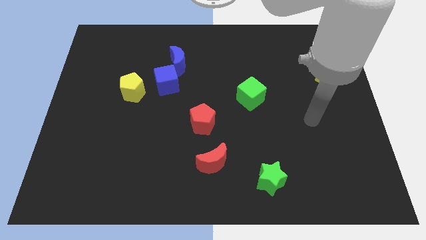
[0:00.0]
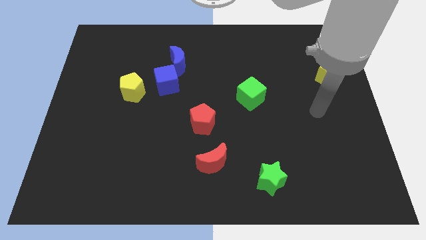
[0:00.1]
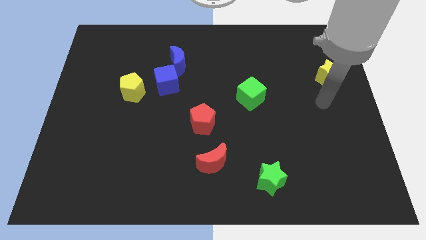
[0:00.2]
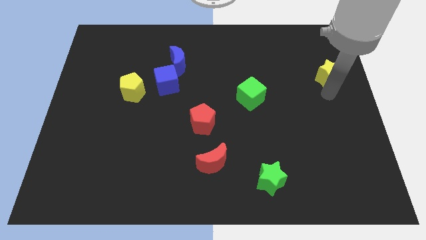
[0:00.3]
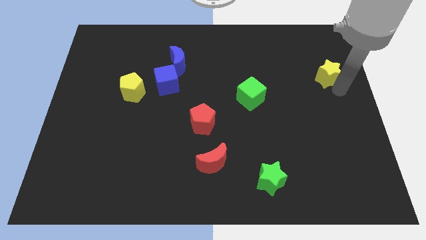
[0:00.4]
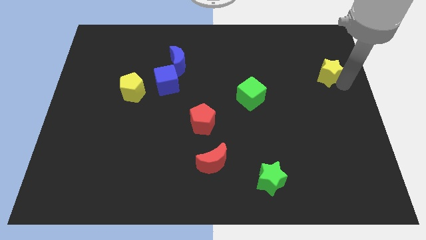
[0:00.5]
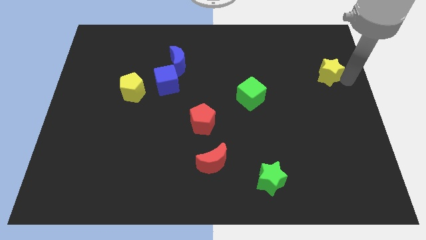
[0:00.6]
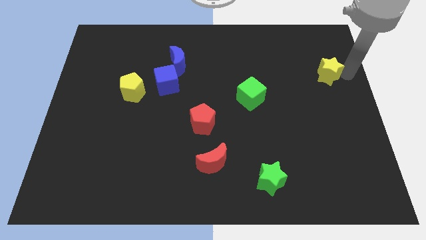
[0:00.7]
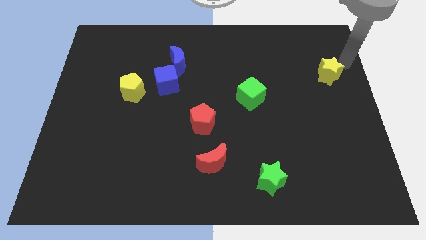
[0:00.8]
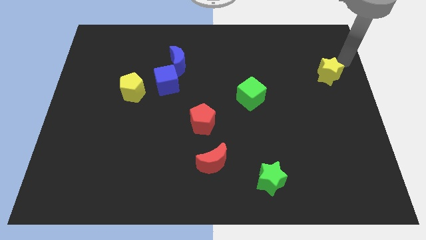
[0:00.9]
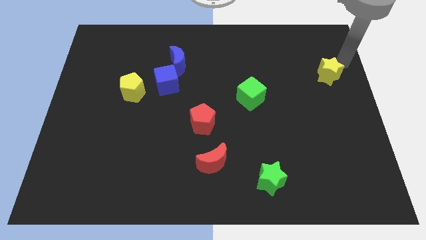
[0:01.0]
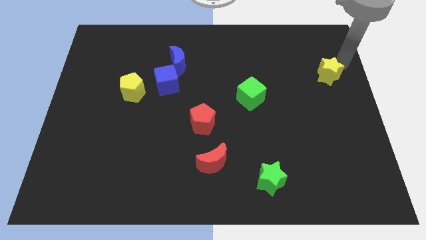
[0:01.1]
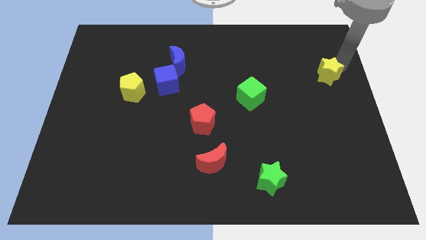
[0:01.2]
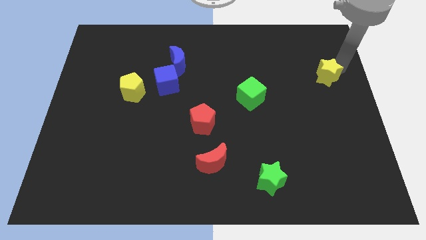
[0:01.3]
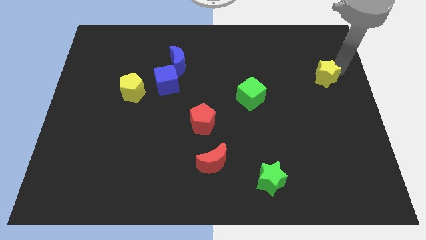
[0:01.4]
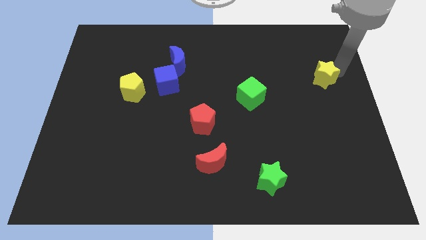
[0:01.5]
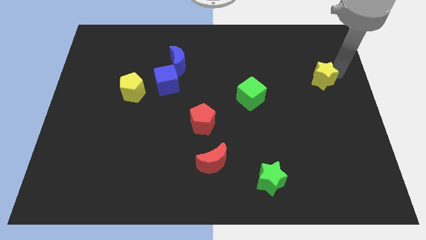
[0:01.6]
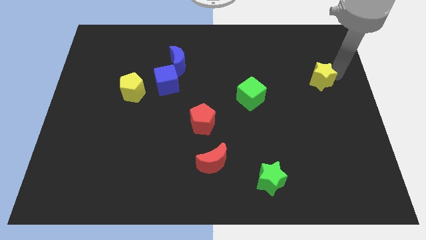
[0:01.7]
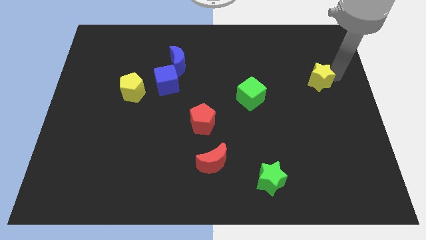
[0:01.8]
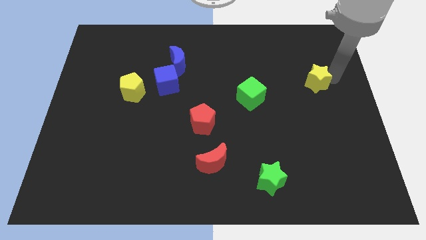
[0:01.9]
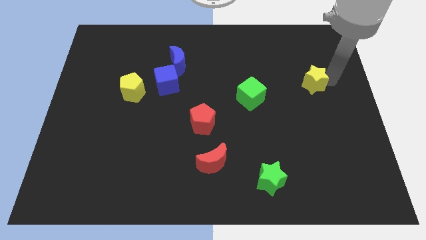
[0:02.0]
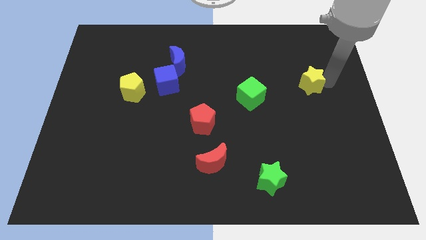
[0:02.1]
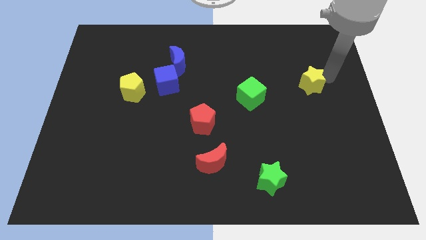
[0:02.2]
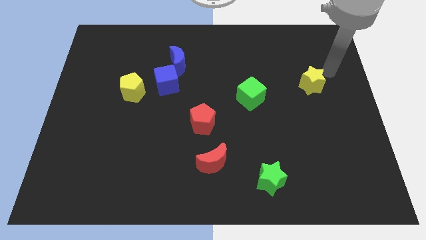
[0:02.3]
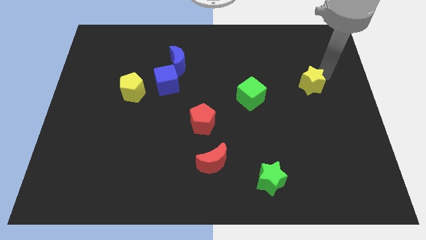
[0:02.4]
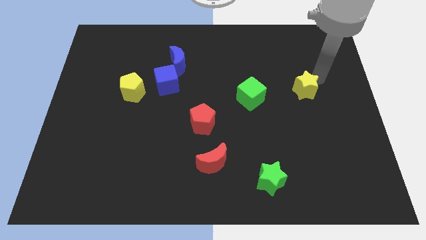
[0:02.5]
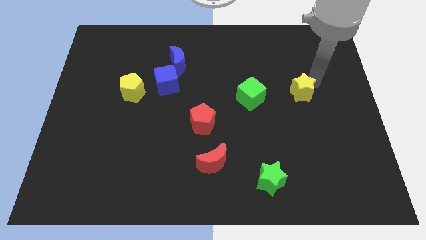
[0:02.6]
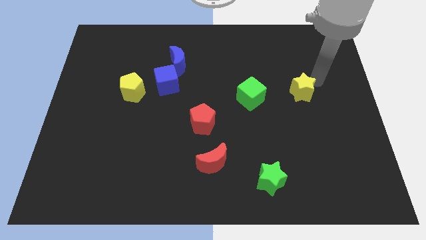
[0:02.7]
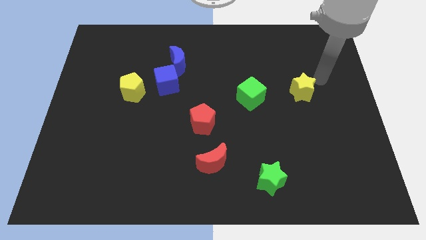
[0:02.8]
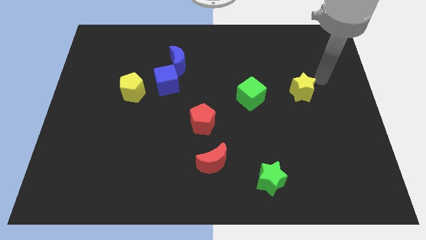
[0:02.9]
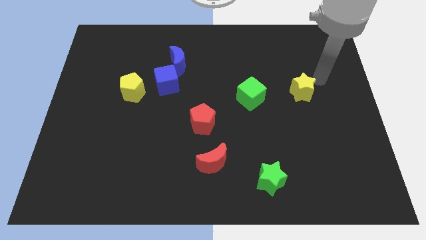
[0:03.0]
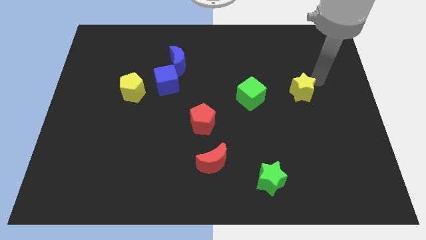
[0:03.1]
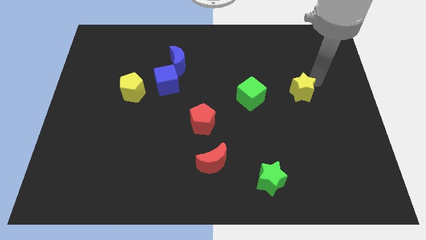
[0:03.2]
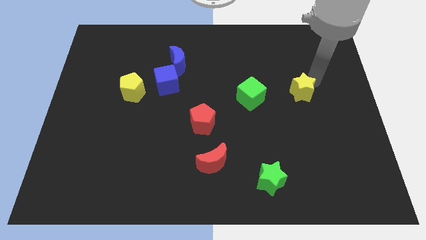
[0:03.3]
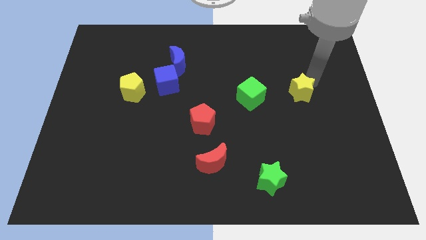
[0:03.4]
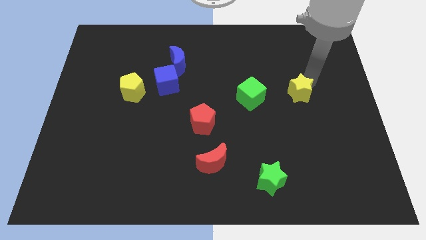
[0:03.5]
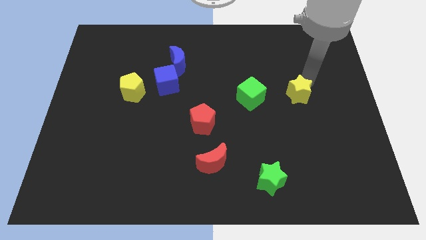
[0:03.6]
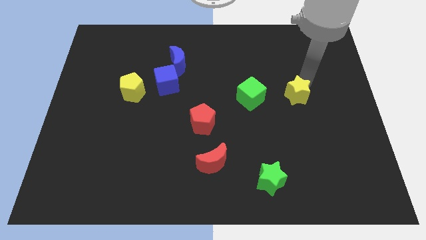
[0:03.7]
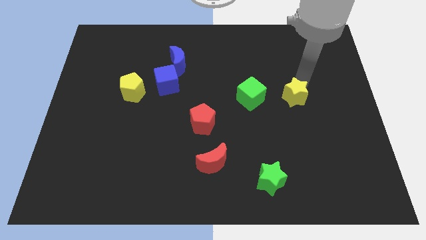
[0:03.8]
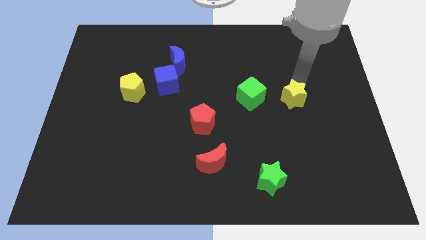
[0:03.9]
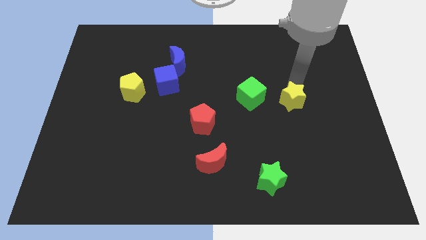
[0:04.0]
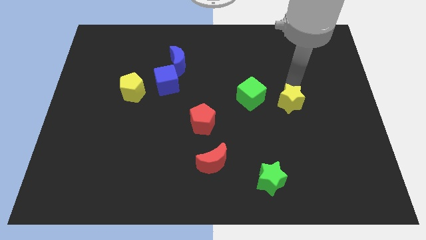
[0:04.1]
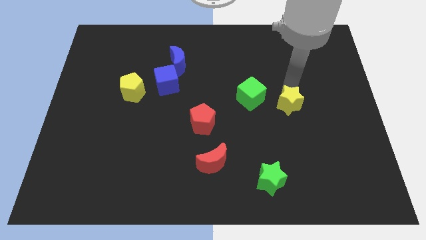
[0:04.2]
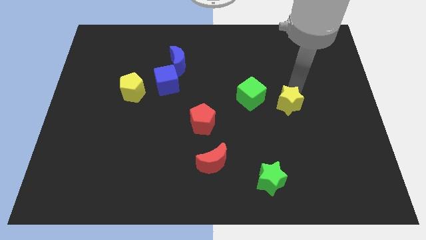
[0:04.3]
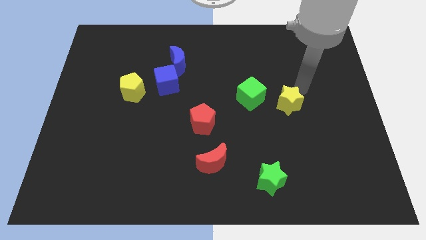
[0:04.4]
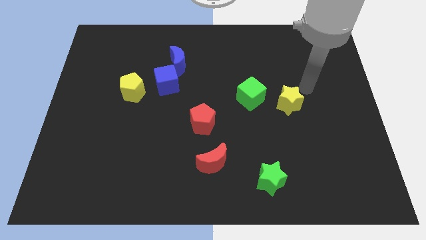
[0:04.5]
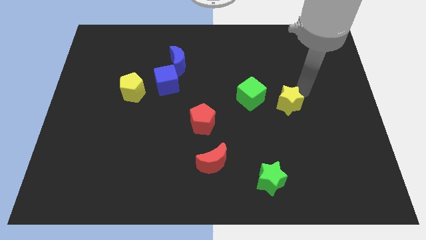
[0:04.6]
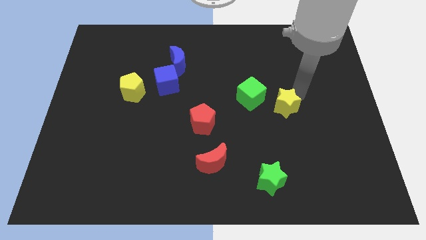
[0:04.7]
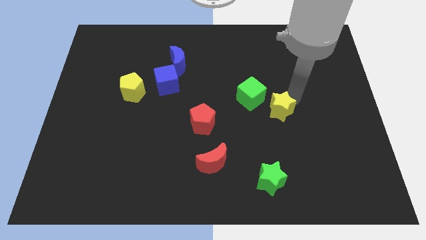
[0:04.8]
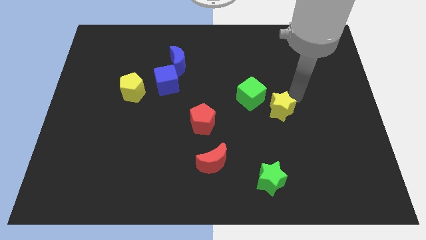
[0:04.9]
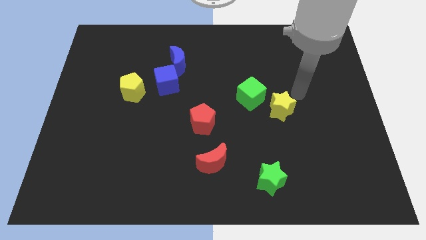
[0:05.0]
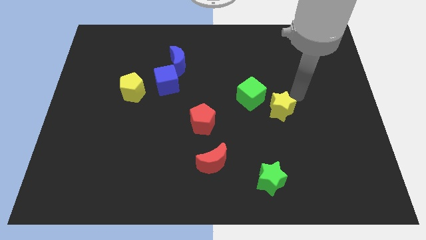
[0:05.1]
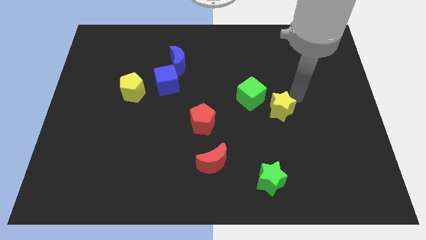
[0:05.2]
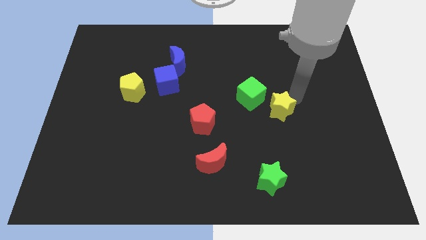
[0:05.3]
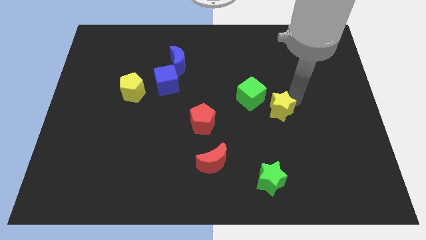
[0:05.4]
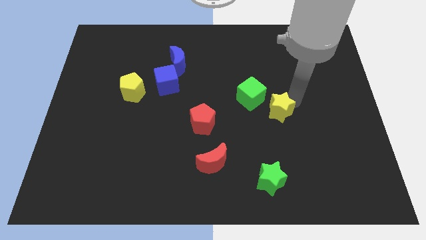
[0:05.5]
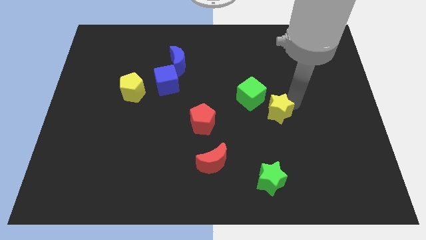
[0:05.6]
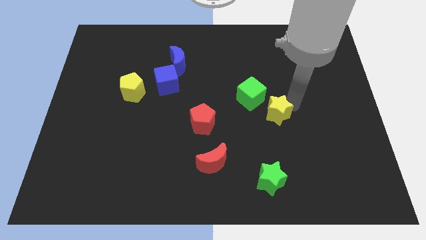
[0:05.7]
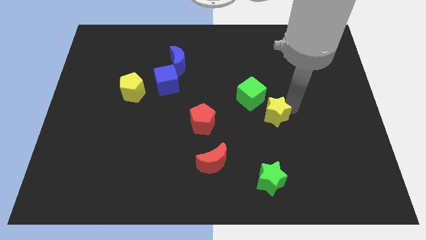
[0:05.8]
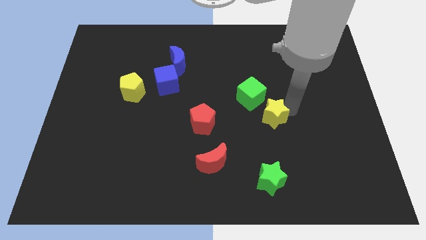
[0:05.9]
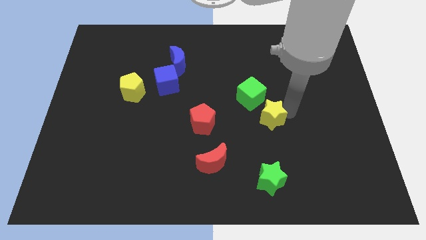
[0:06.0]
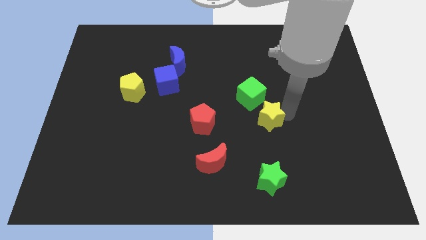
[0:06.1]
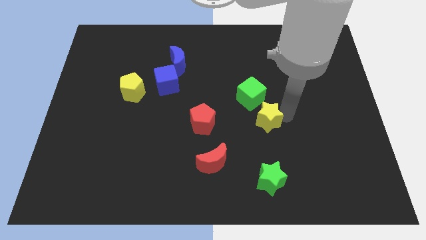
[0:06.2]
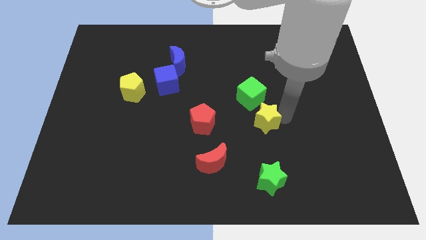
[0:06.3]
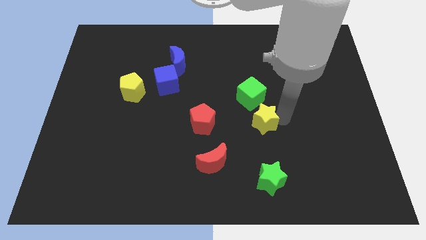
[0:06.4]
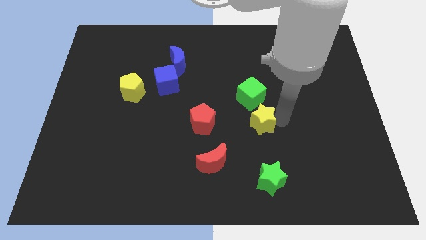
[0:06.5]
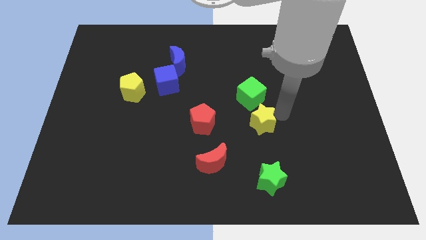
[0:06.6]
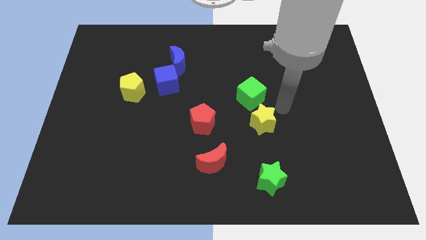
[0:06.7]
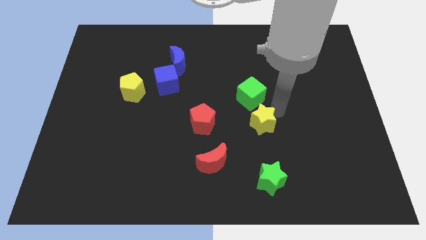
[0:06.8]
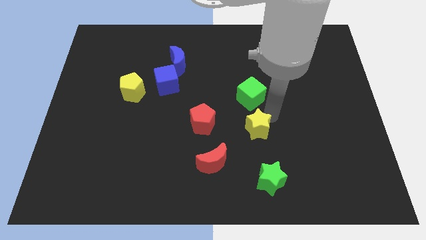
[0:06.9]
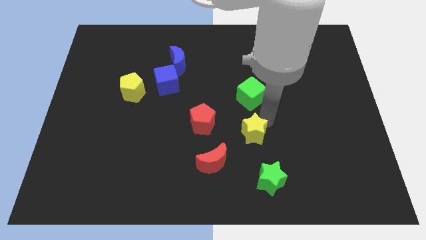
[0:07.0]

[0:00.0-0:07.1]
push the yellow star to the top right of the red moon
